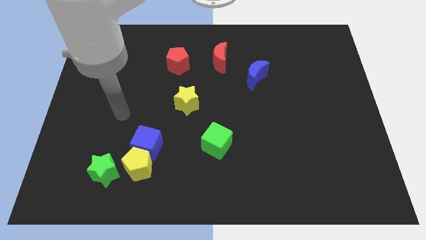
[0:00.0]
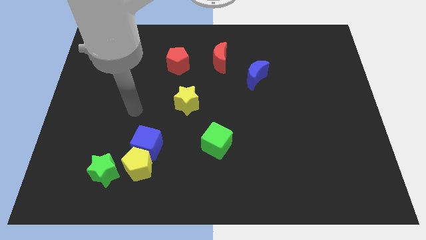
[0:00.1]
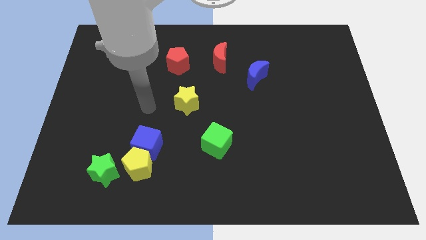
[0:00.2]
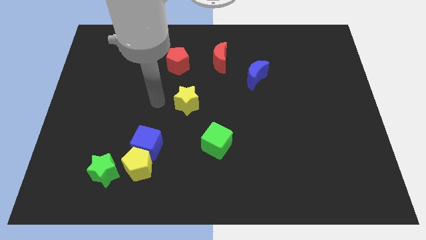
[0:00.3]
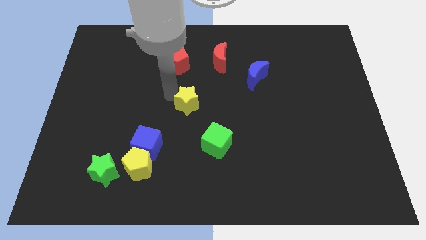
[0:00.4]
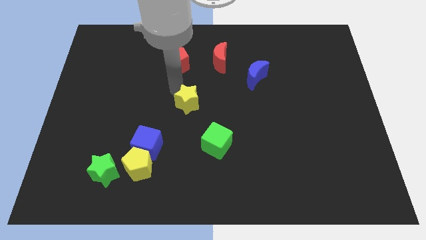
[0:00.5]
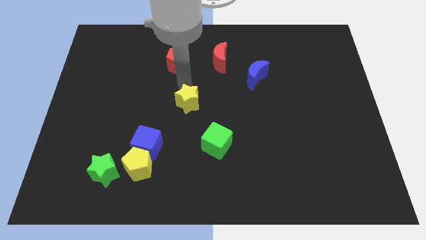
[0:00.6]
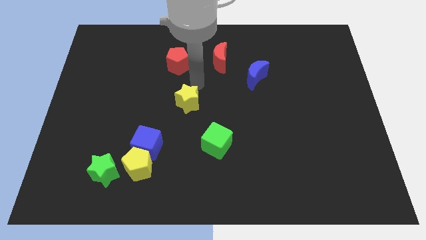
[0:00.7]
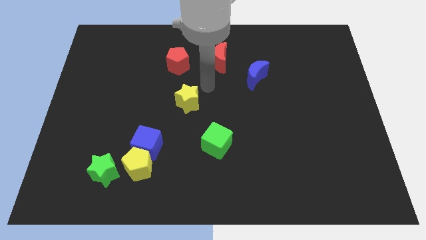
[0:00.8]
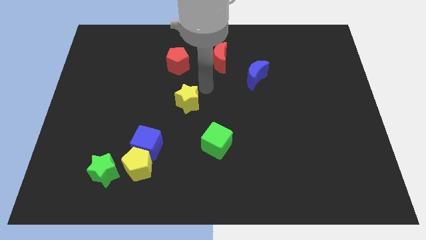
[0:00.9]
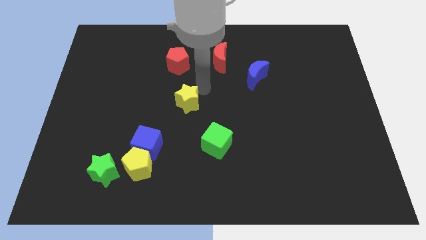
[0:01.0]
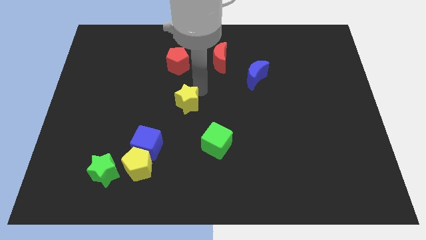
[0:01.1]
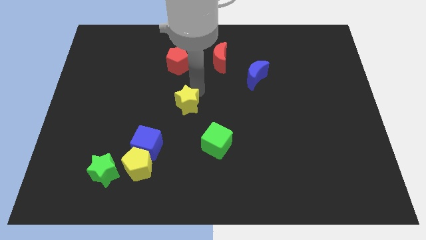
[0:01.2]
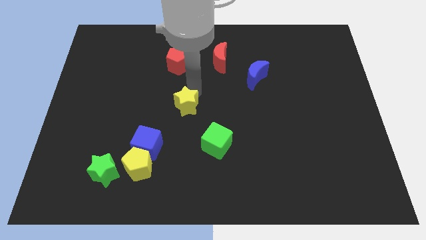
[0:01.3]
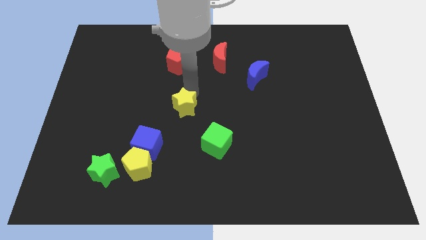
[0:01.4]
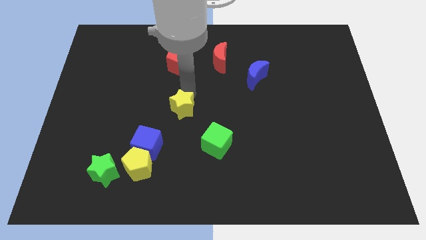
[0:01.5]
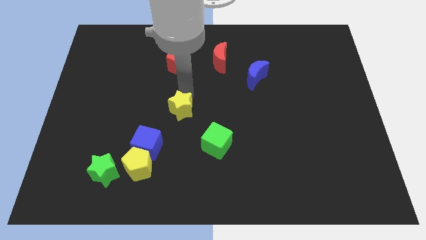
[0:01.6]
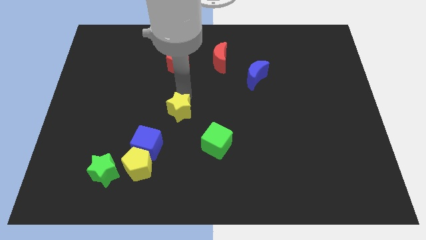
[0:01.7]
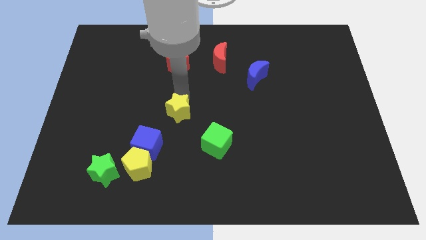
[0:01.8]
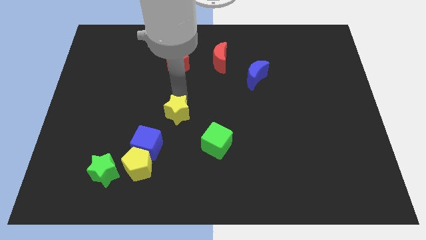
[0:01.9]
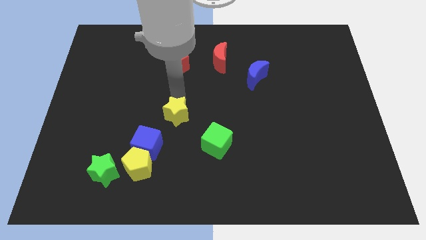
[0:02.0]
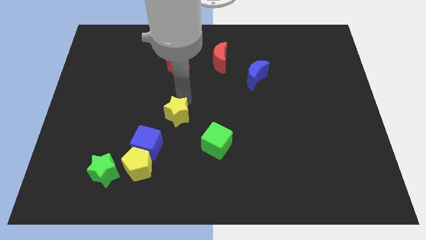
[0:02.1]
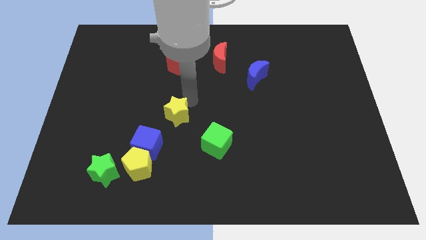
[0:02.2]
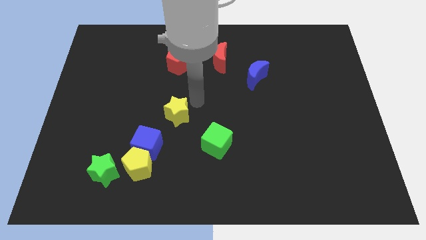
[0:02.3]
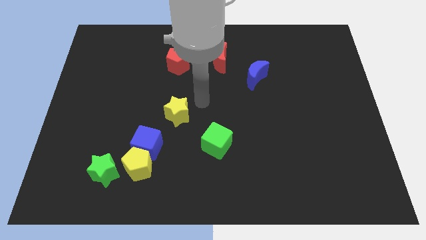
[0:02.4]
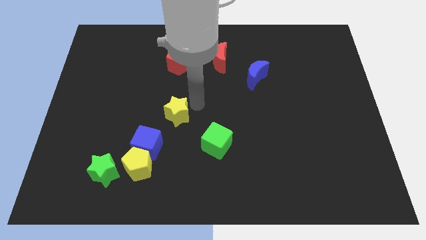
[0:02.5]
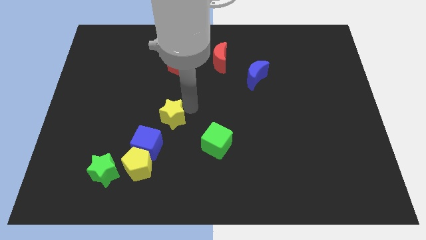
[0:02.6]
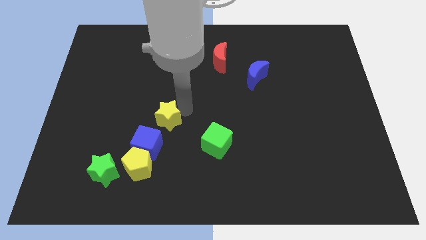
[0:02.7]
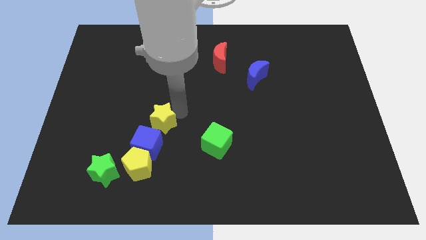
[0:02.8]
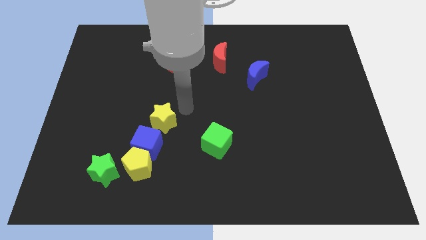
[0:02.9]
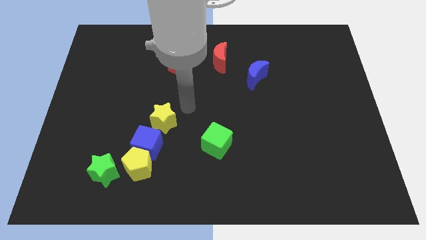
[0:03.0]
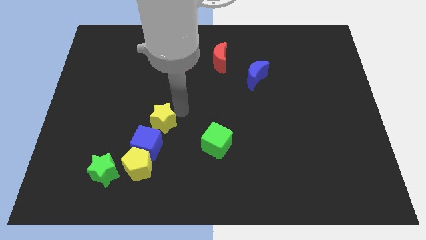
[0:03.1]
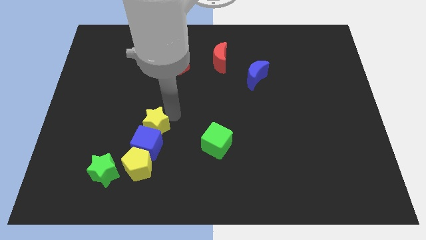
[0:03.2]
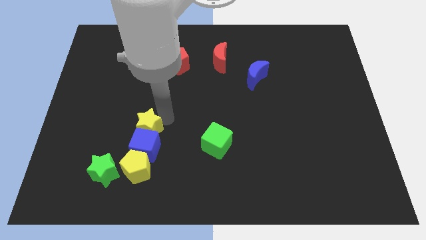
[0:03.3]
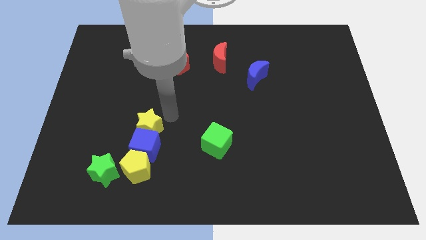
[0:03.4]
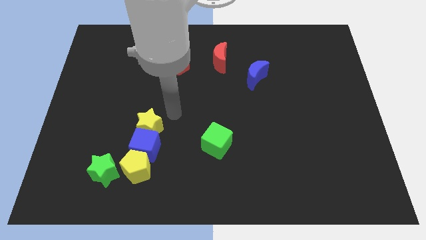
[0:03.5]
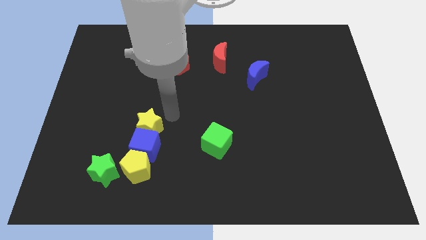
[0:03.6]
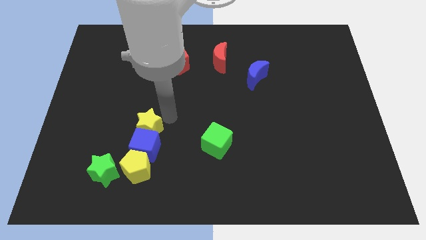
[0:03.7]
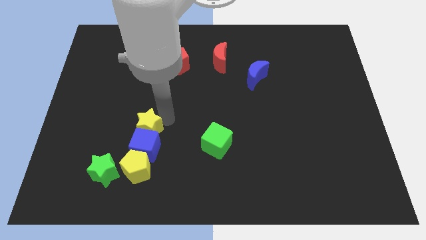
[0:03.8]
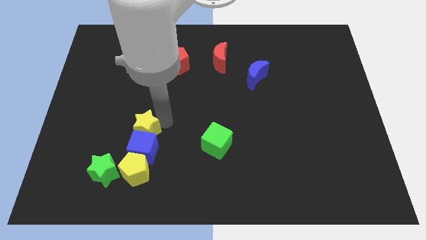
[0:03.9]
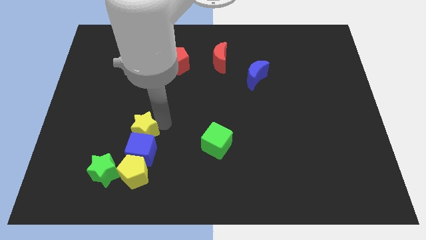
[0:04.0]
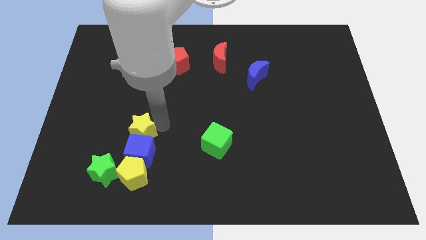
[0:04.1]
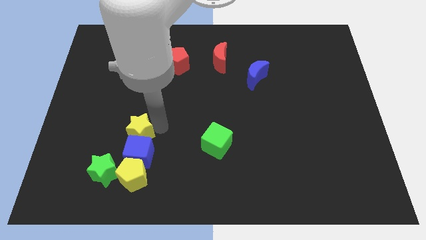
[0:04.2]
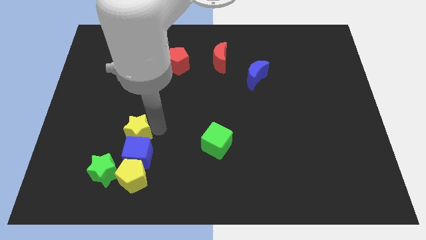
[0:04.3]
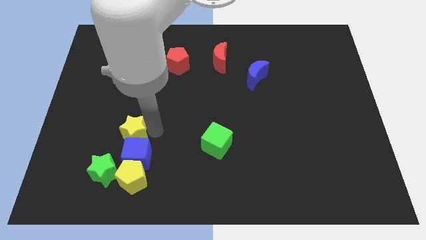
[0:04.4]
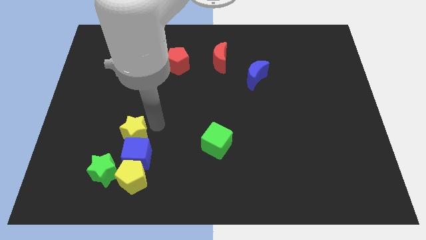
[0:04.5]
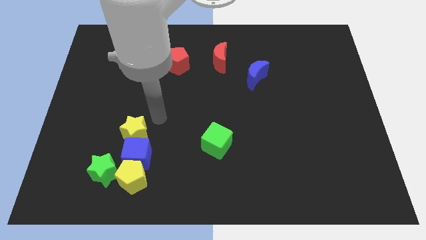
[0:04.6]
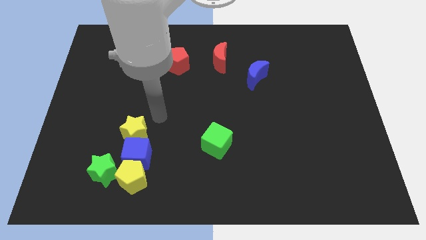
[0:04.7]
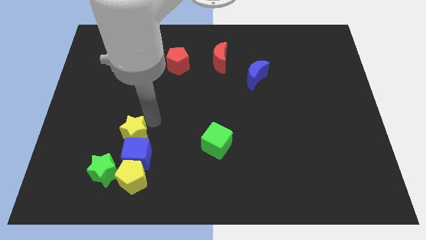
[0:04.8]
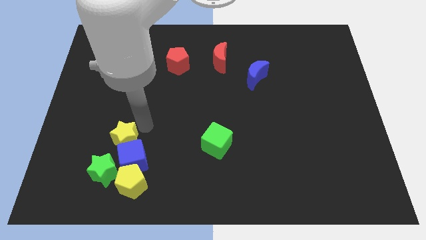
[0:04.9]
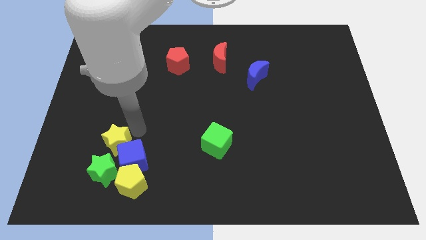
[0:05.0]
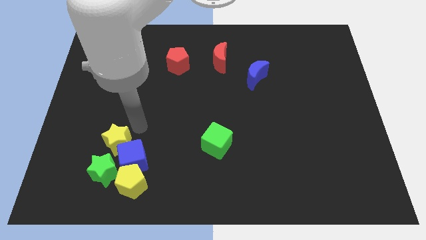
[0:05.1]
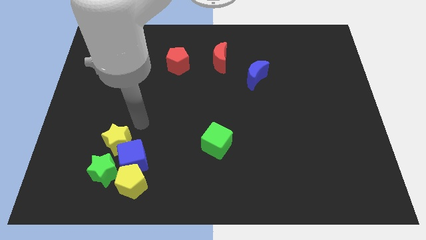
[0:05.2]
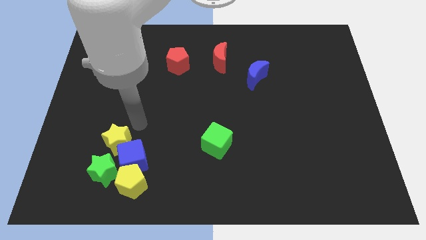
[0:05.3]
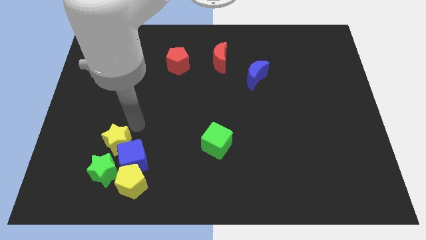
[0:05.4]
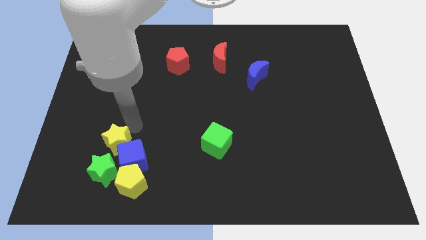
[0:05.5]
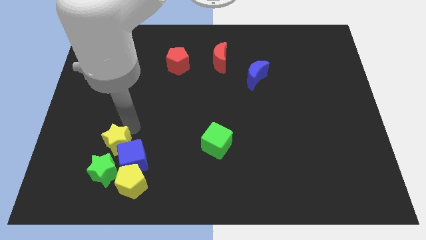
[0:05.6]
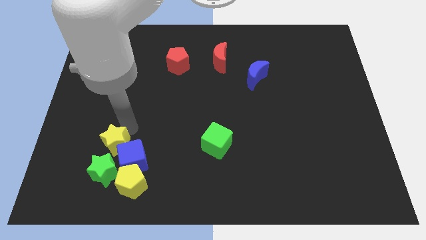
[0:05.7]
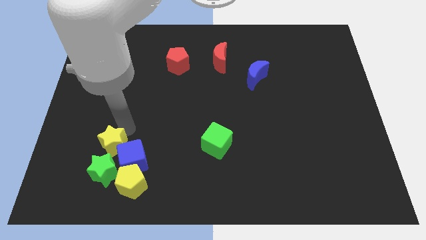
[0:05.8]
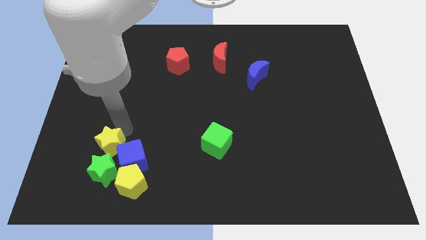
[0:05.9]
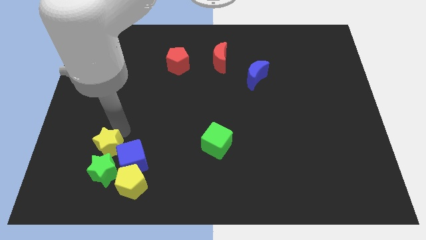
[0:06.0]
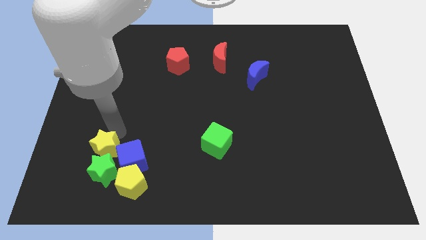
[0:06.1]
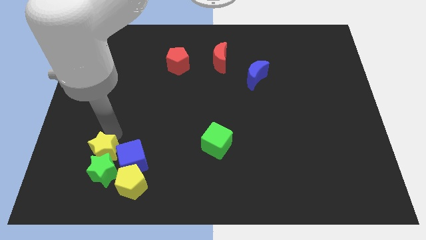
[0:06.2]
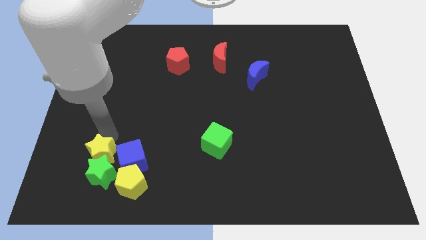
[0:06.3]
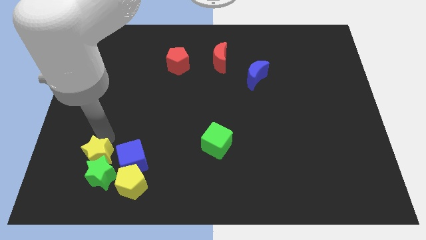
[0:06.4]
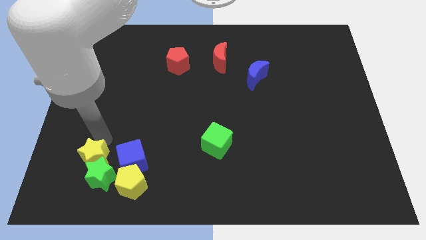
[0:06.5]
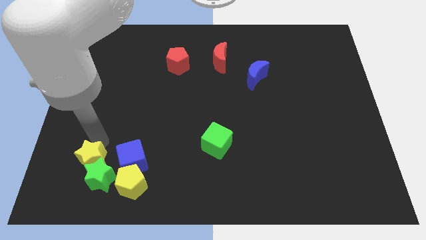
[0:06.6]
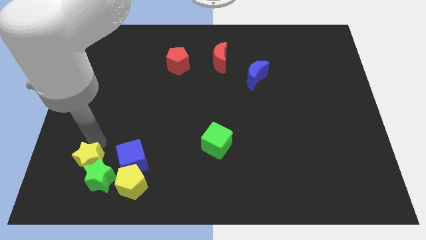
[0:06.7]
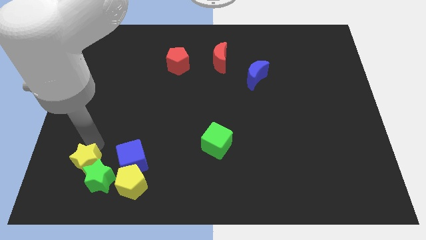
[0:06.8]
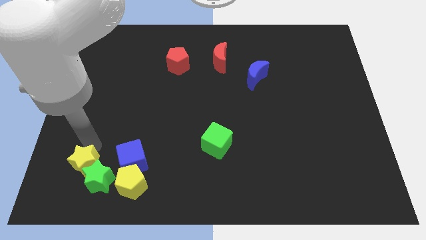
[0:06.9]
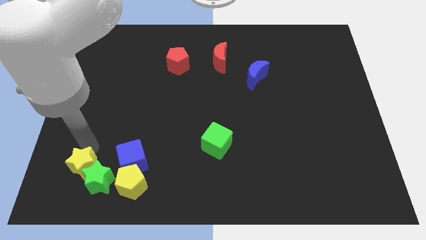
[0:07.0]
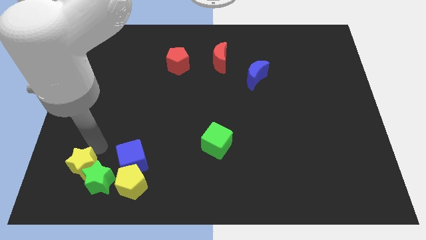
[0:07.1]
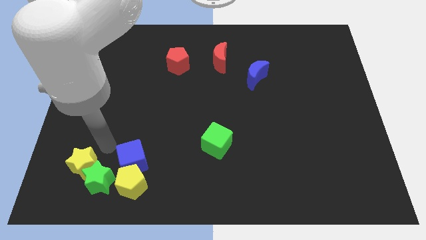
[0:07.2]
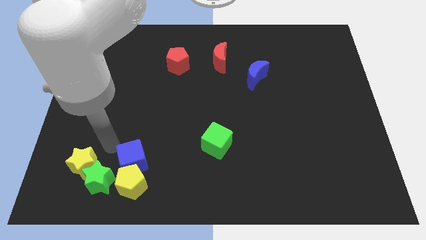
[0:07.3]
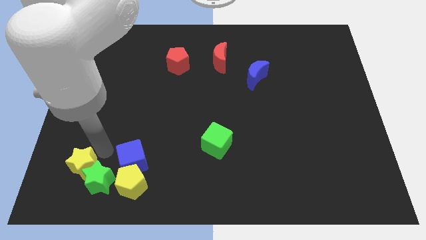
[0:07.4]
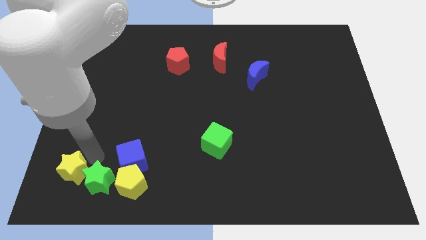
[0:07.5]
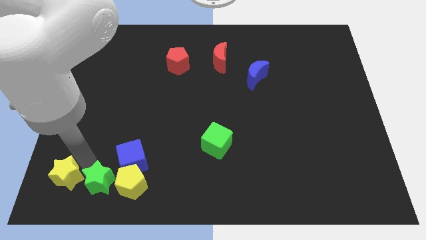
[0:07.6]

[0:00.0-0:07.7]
slide the yellow star to the bottom left of the board
